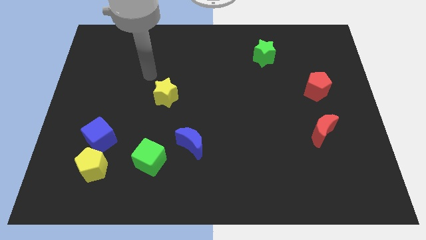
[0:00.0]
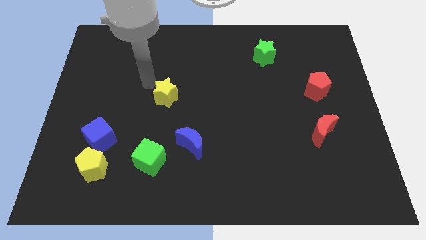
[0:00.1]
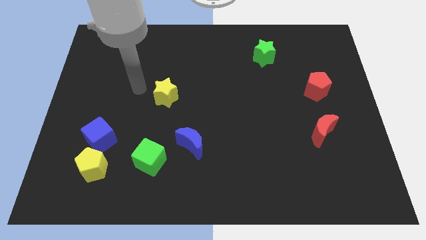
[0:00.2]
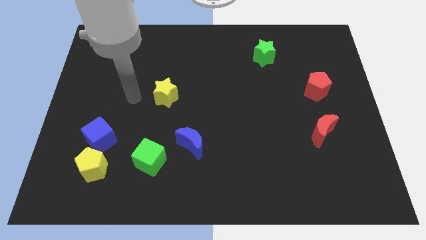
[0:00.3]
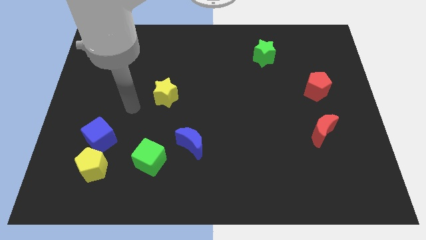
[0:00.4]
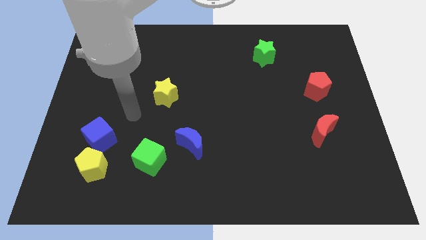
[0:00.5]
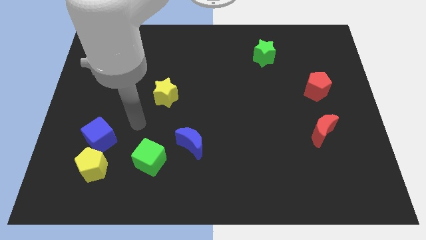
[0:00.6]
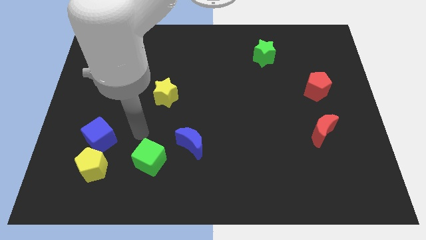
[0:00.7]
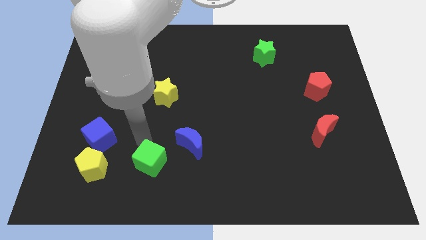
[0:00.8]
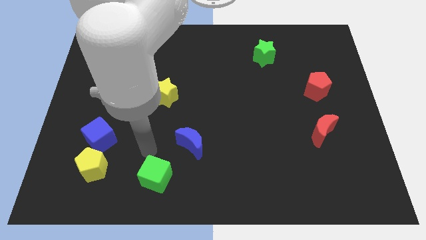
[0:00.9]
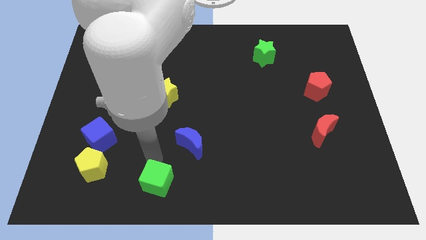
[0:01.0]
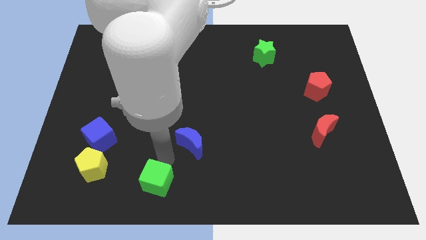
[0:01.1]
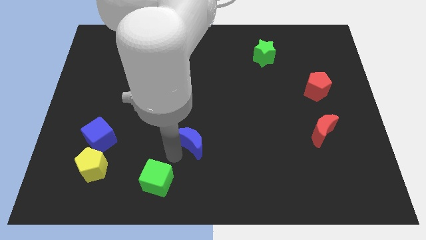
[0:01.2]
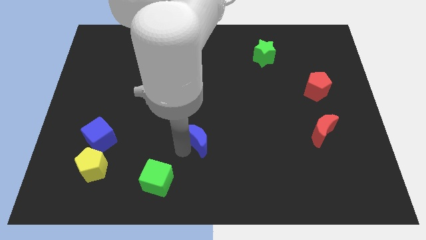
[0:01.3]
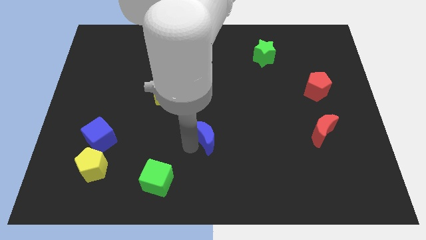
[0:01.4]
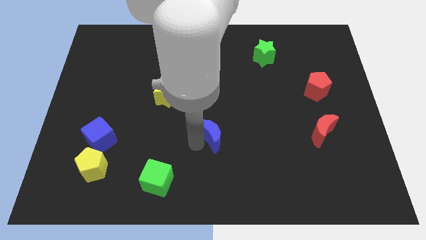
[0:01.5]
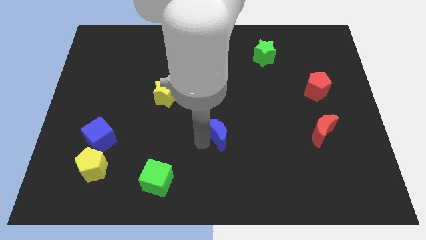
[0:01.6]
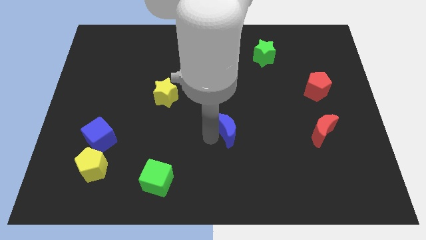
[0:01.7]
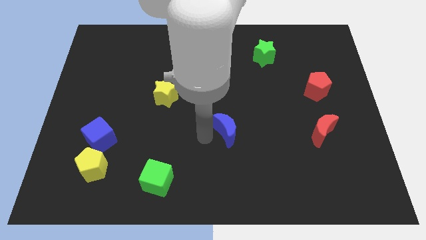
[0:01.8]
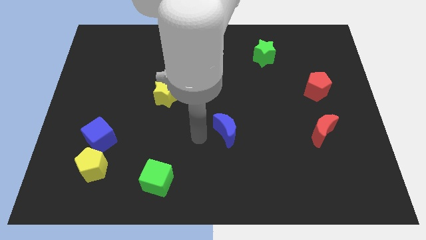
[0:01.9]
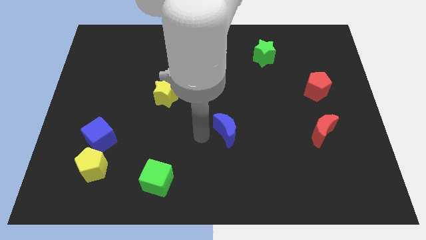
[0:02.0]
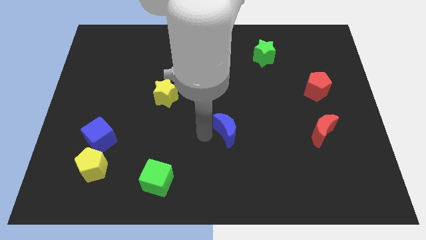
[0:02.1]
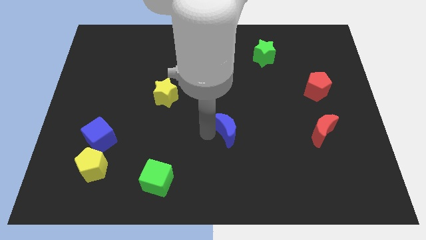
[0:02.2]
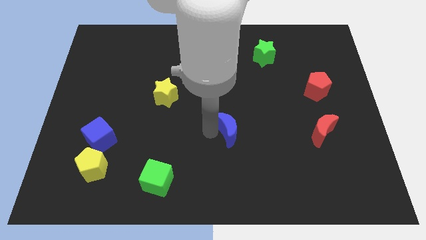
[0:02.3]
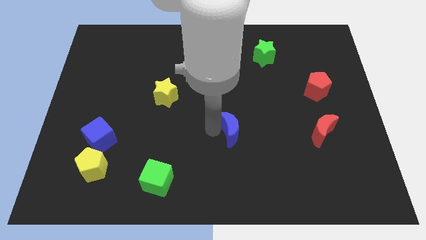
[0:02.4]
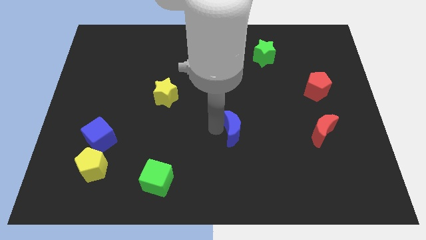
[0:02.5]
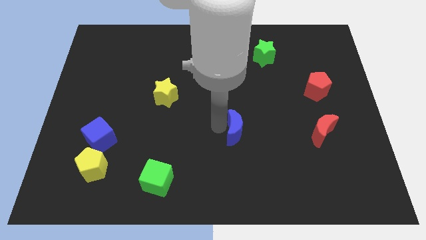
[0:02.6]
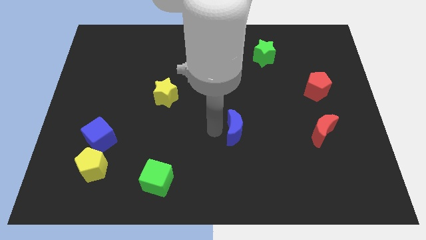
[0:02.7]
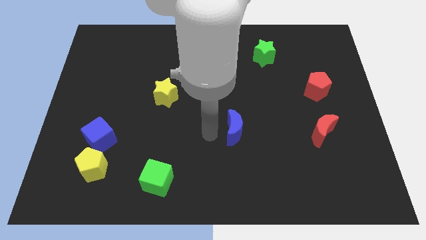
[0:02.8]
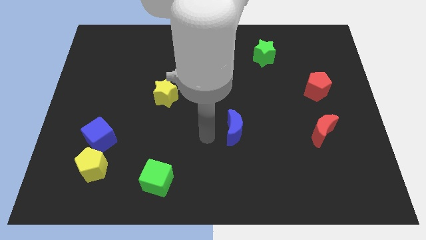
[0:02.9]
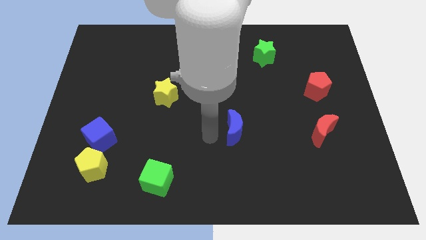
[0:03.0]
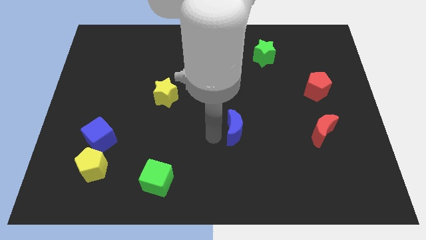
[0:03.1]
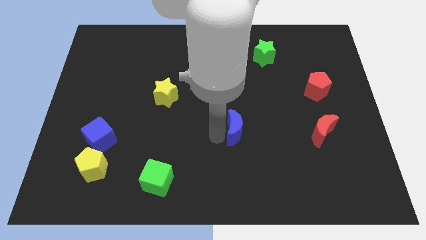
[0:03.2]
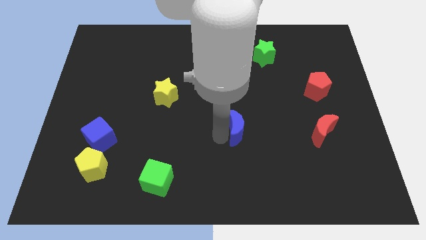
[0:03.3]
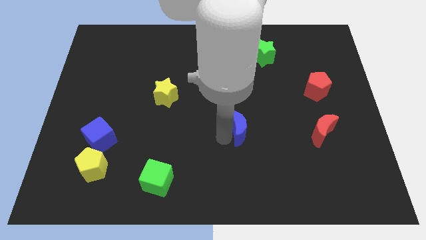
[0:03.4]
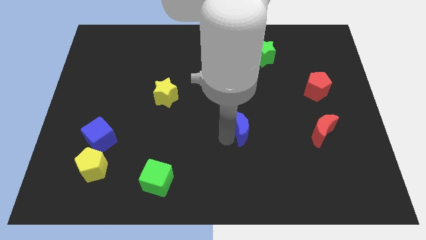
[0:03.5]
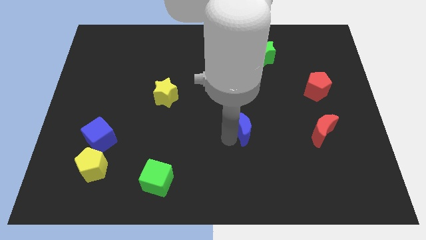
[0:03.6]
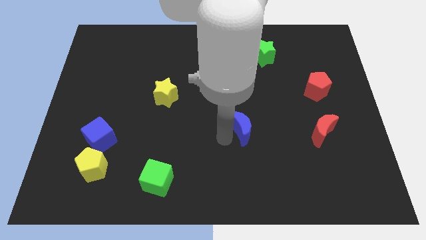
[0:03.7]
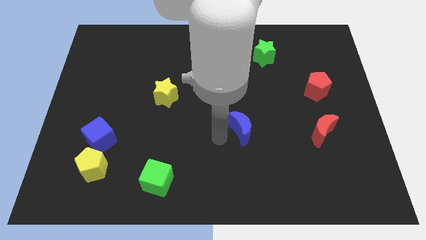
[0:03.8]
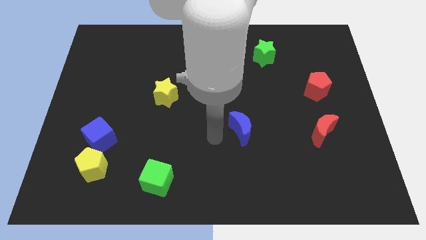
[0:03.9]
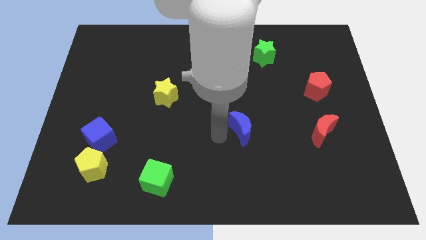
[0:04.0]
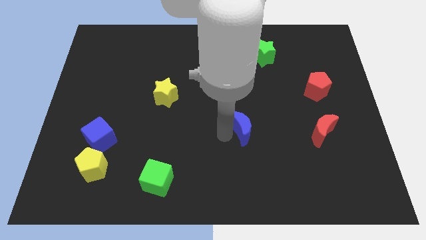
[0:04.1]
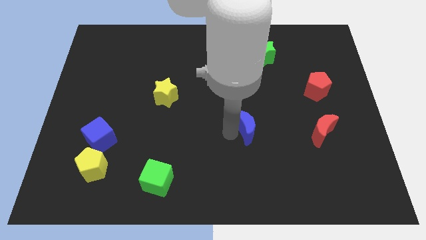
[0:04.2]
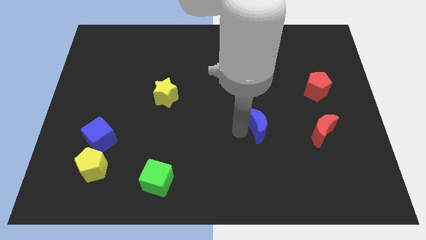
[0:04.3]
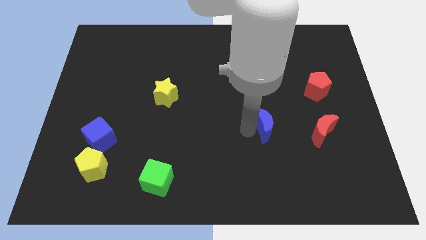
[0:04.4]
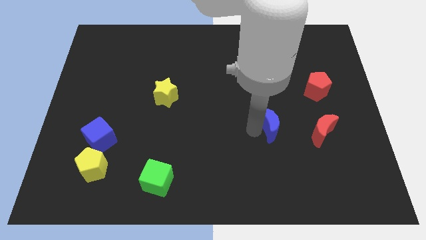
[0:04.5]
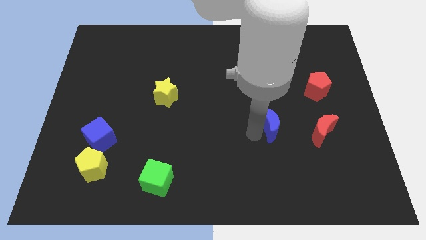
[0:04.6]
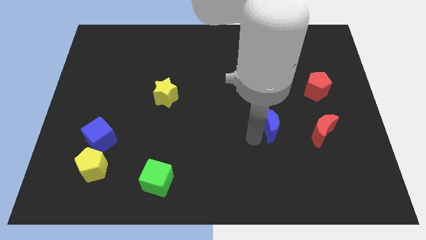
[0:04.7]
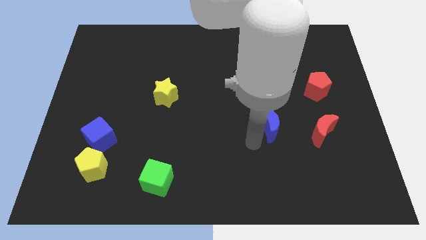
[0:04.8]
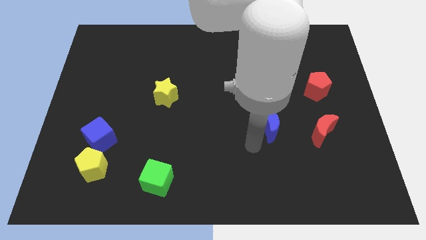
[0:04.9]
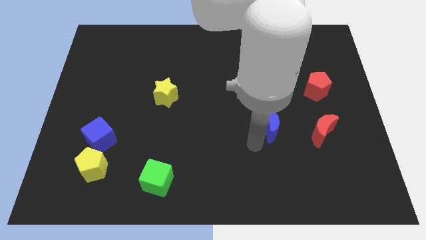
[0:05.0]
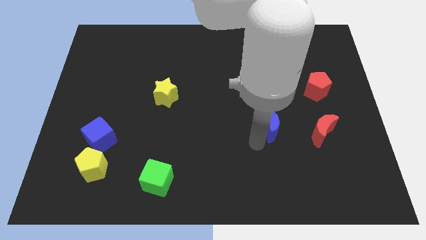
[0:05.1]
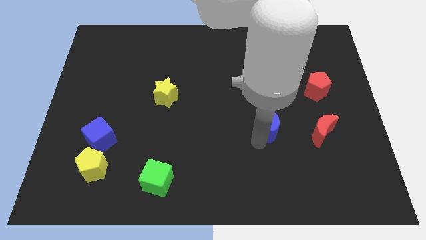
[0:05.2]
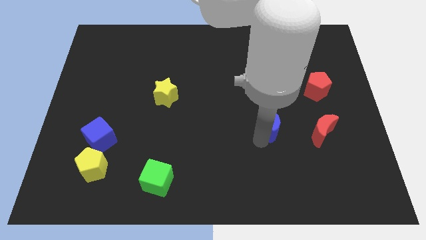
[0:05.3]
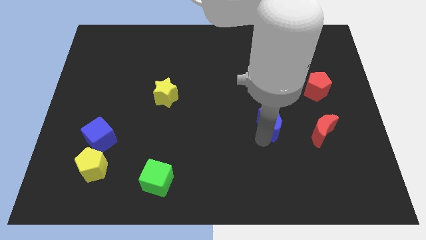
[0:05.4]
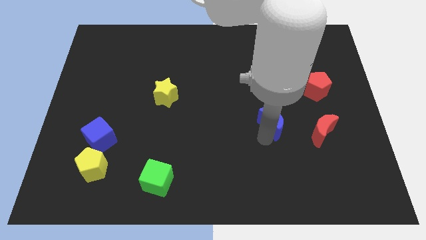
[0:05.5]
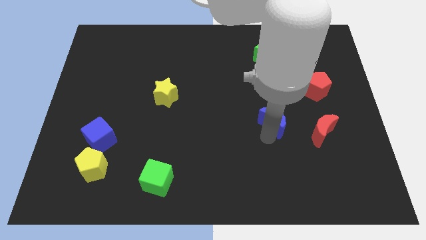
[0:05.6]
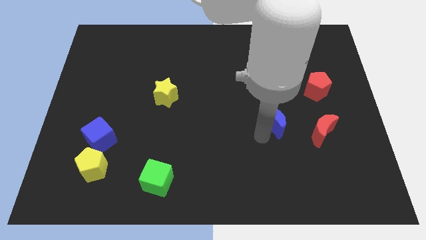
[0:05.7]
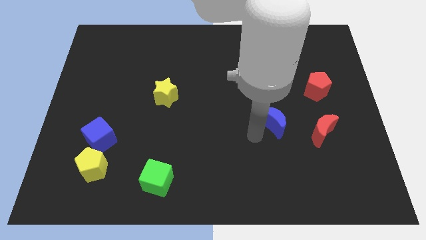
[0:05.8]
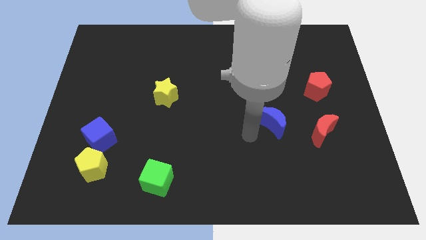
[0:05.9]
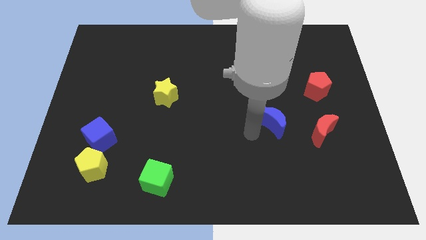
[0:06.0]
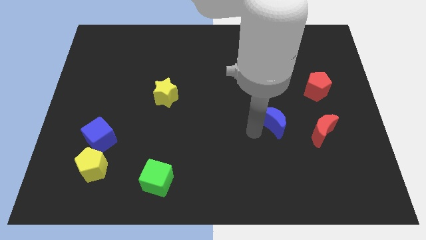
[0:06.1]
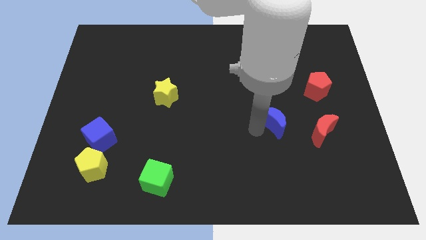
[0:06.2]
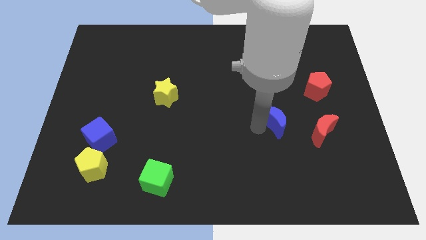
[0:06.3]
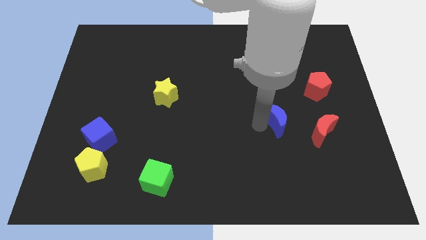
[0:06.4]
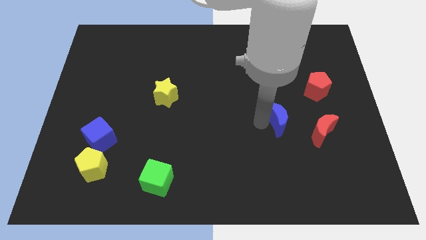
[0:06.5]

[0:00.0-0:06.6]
put the blue moon to the top left of the red moon

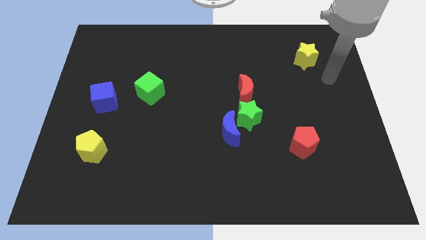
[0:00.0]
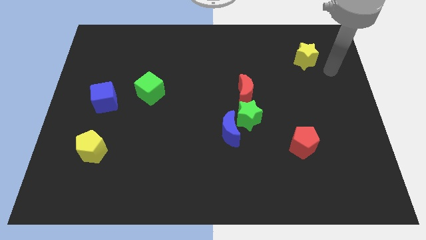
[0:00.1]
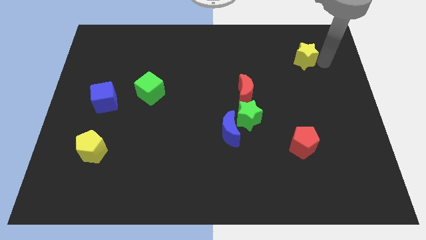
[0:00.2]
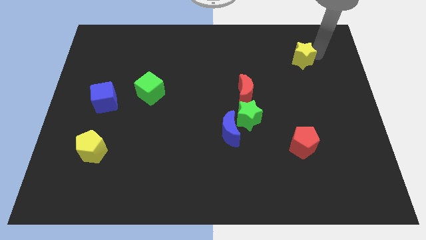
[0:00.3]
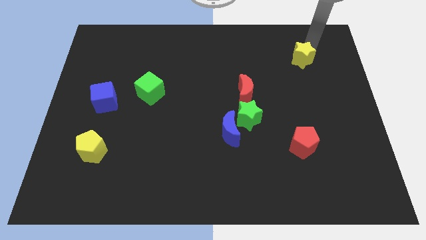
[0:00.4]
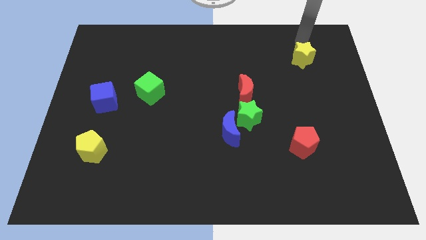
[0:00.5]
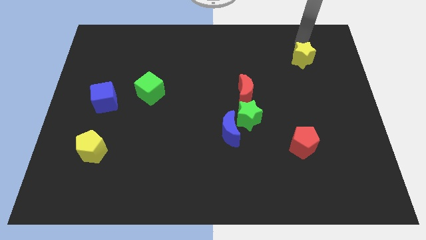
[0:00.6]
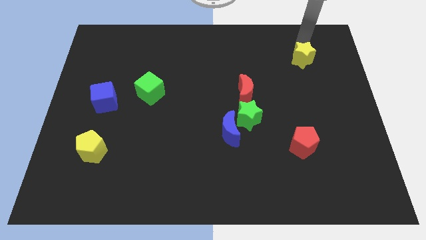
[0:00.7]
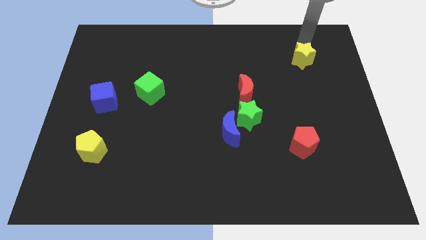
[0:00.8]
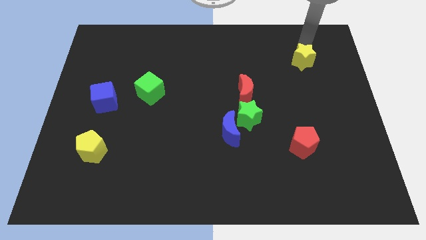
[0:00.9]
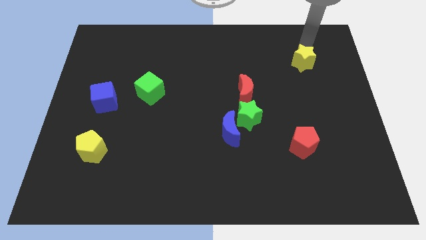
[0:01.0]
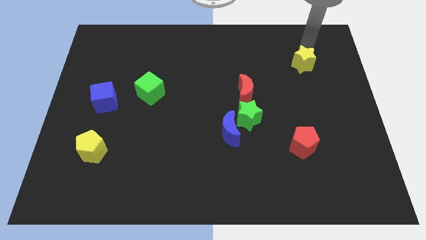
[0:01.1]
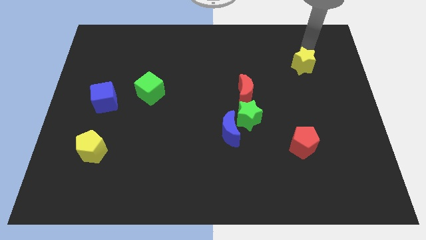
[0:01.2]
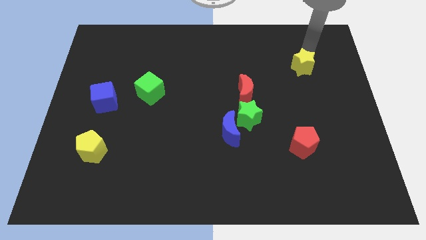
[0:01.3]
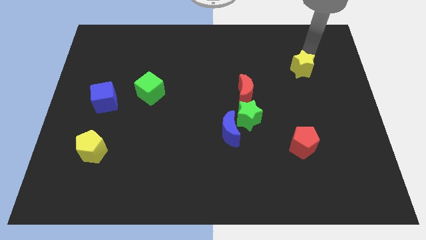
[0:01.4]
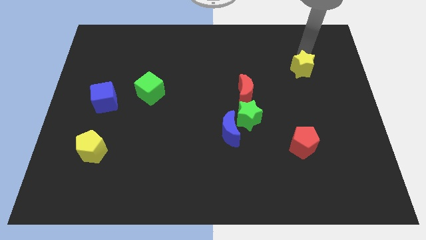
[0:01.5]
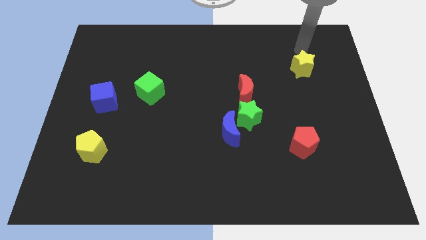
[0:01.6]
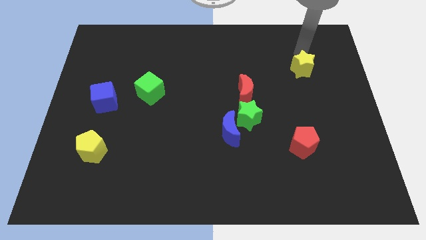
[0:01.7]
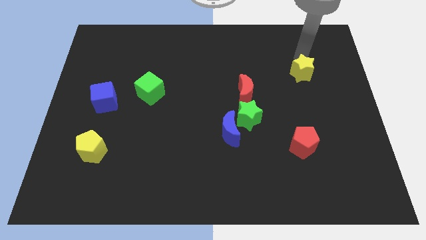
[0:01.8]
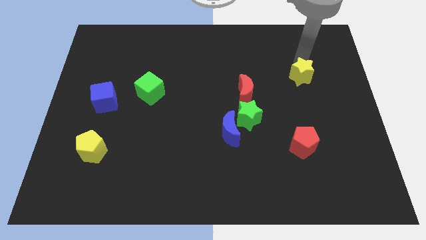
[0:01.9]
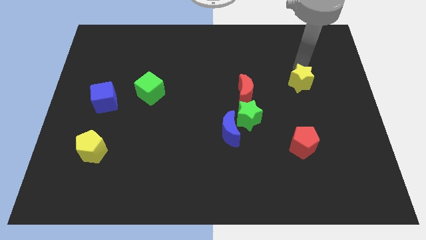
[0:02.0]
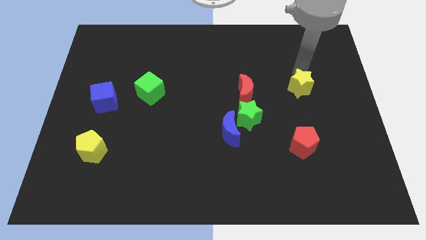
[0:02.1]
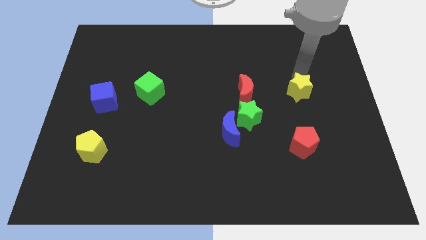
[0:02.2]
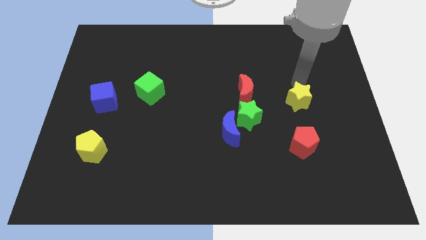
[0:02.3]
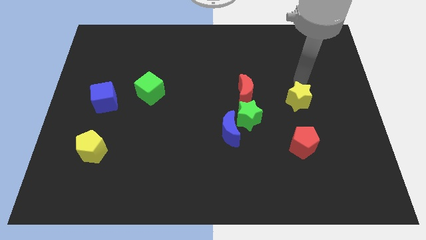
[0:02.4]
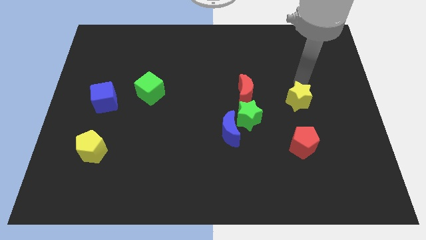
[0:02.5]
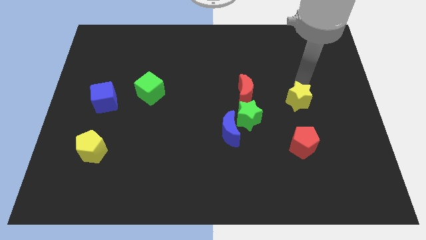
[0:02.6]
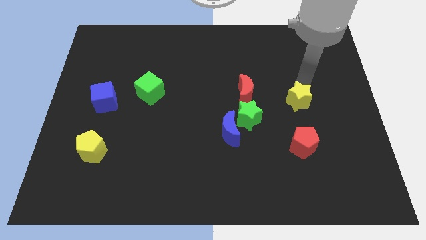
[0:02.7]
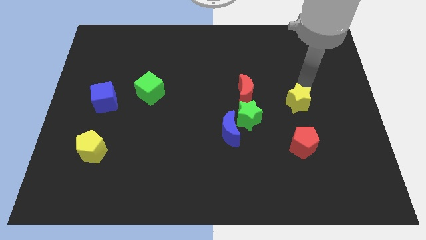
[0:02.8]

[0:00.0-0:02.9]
put the yellow star right of the green star
